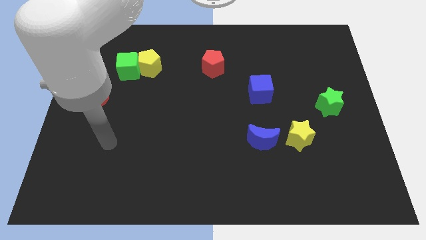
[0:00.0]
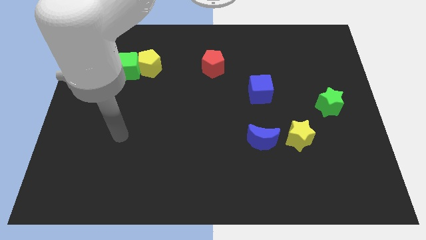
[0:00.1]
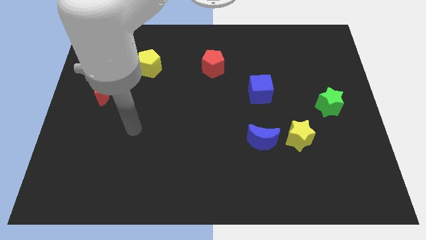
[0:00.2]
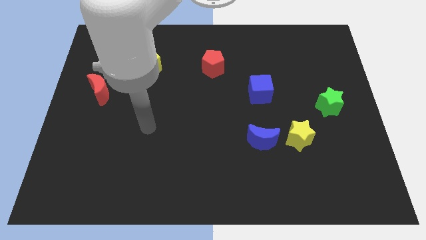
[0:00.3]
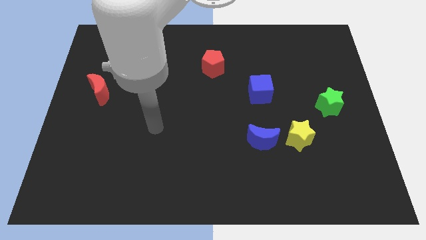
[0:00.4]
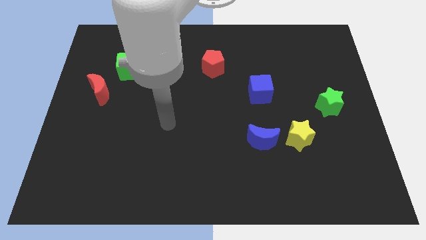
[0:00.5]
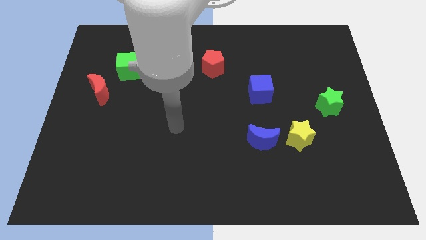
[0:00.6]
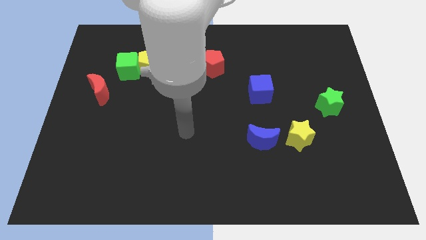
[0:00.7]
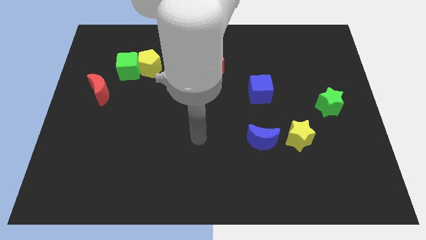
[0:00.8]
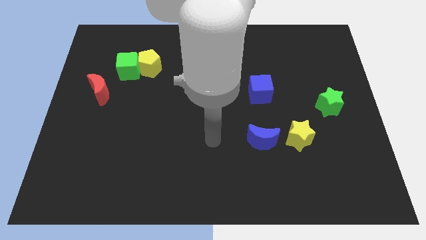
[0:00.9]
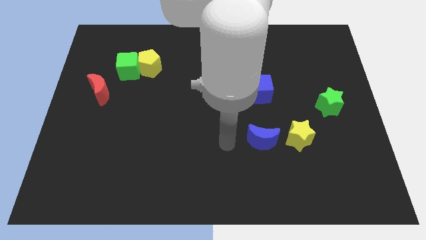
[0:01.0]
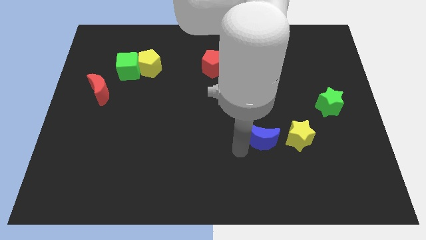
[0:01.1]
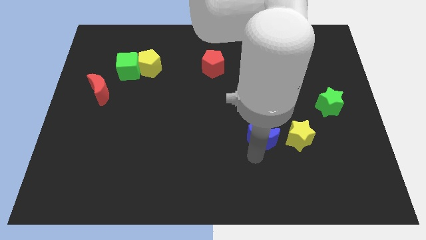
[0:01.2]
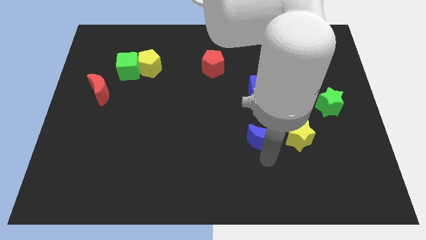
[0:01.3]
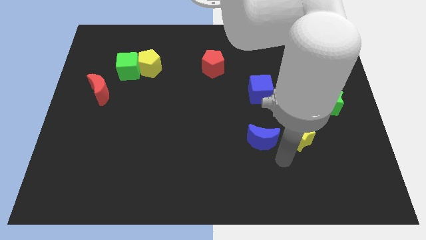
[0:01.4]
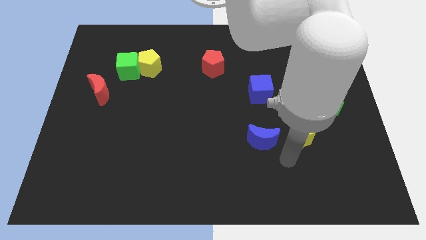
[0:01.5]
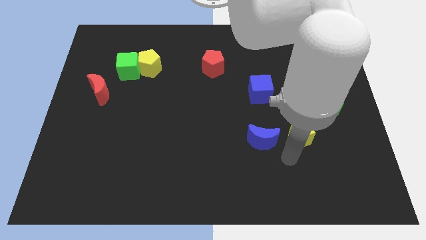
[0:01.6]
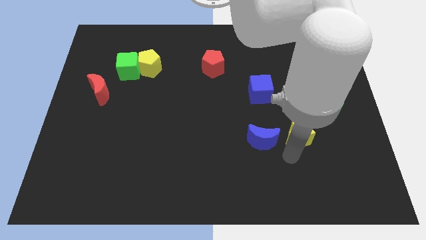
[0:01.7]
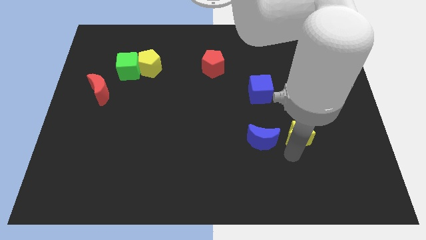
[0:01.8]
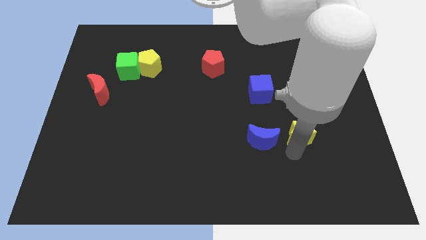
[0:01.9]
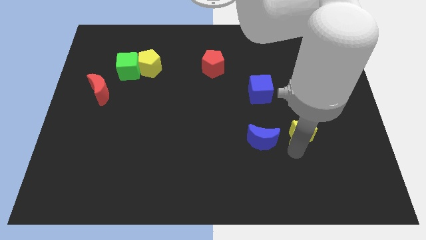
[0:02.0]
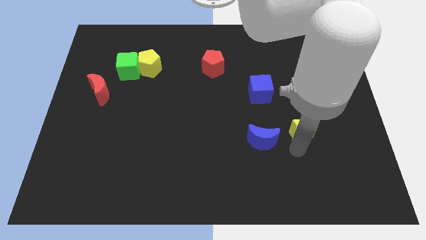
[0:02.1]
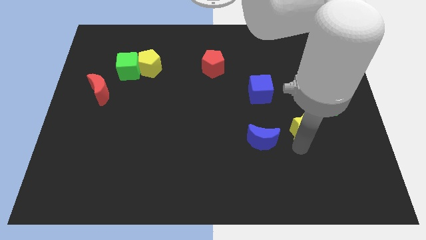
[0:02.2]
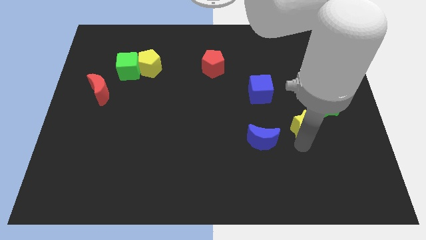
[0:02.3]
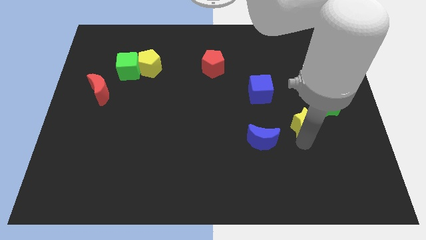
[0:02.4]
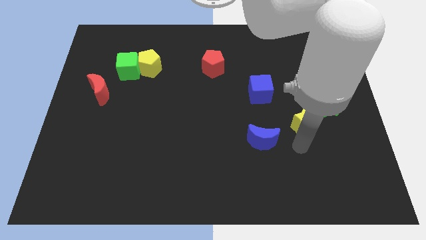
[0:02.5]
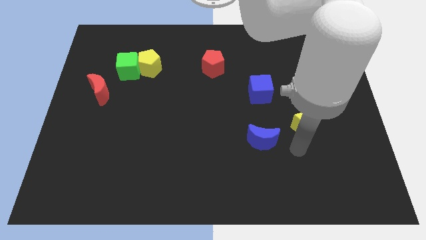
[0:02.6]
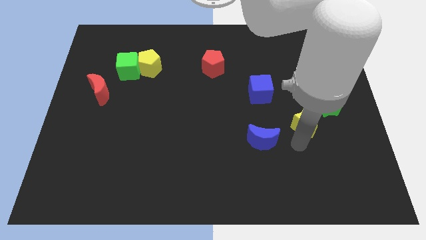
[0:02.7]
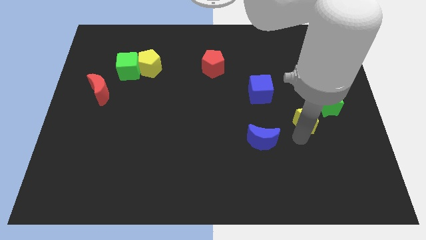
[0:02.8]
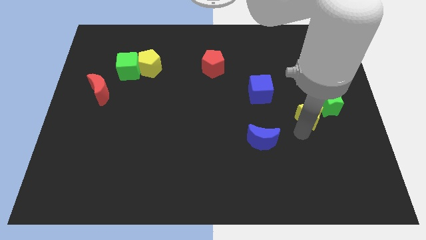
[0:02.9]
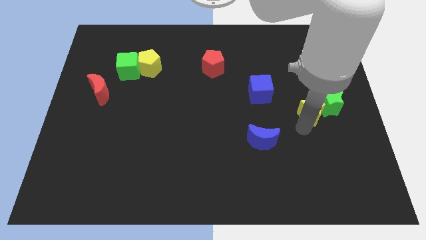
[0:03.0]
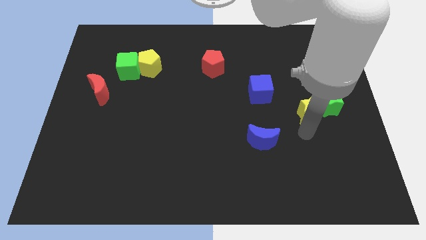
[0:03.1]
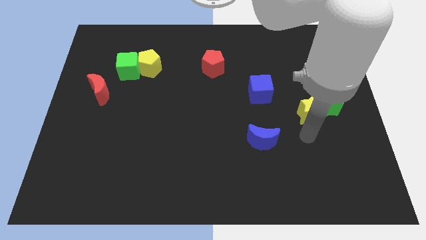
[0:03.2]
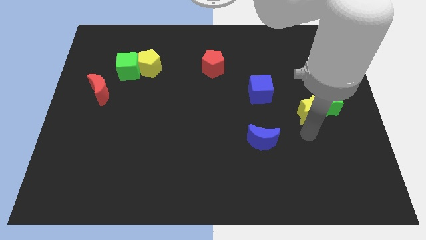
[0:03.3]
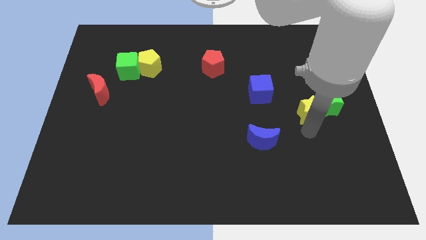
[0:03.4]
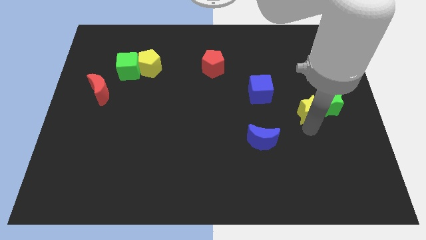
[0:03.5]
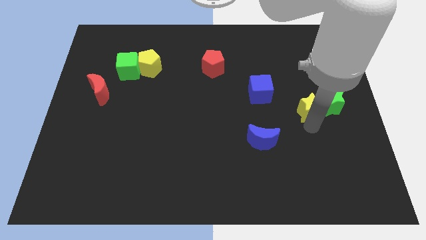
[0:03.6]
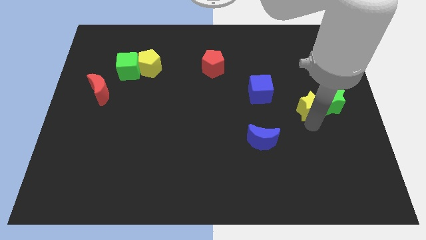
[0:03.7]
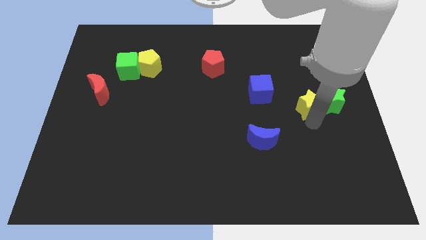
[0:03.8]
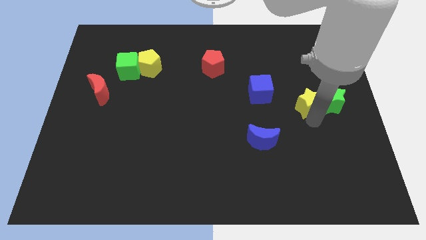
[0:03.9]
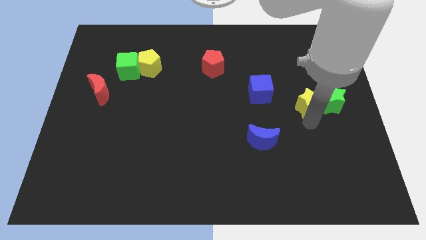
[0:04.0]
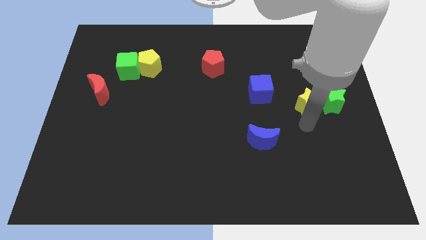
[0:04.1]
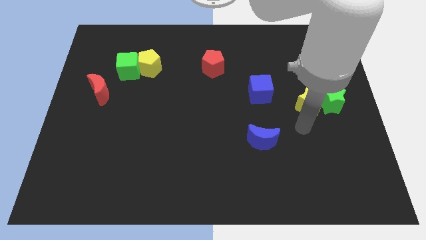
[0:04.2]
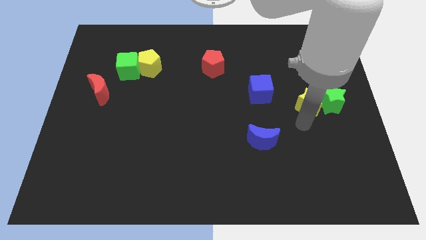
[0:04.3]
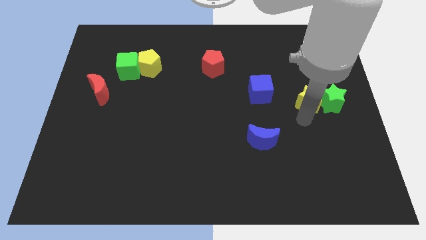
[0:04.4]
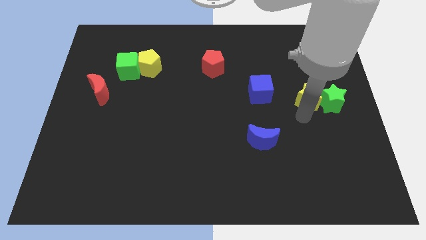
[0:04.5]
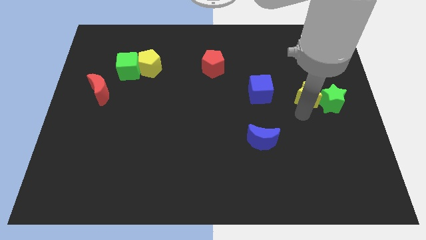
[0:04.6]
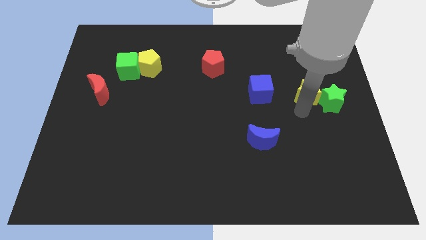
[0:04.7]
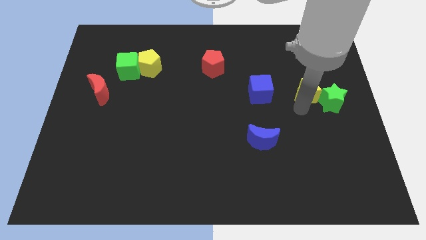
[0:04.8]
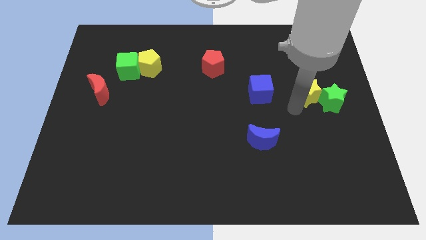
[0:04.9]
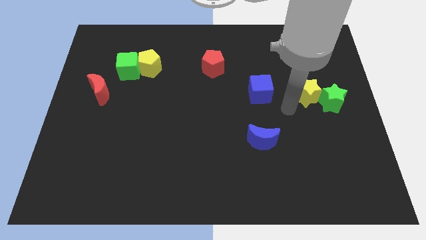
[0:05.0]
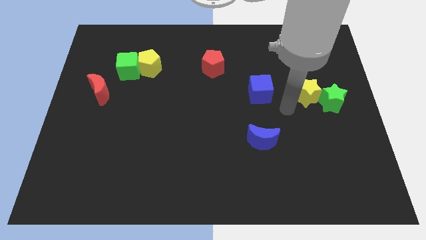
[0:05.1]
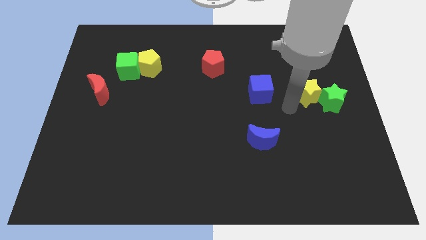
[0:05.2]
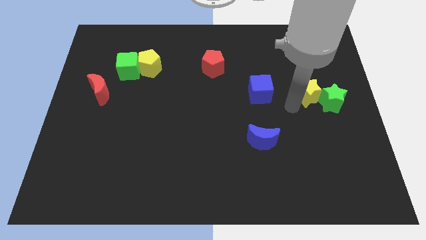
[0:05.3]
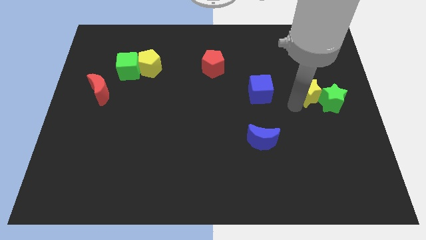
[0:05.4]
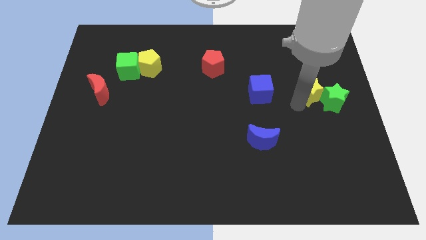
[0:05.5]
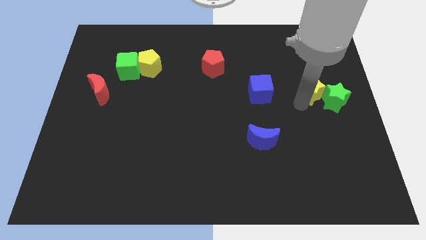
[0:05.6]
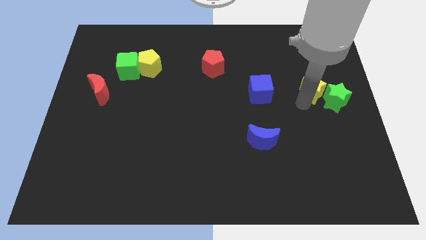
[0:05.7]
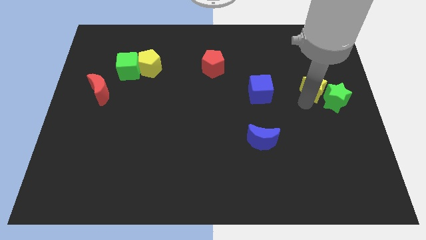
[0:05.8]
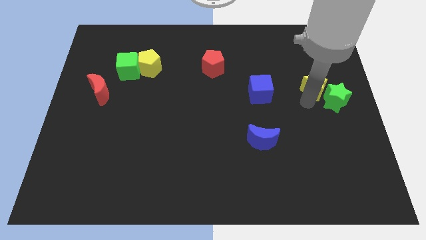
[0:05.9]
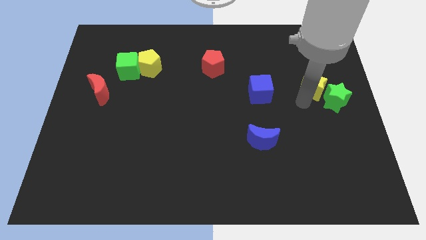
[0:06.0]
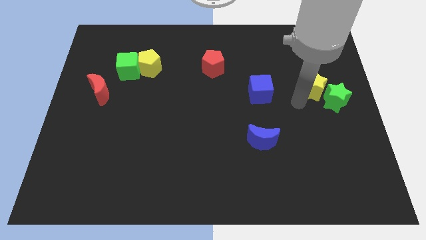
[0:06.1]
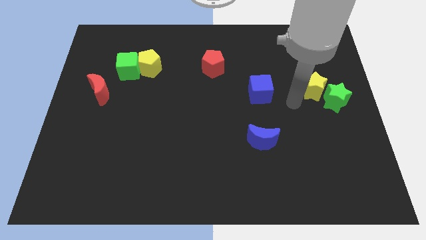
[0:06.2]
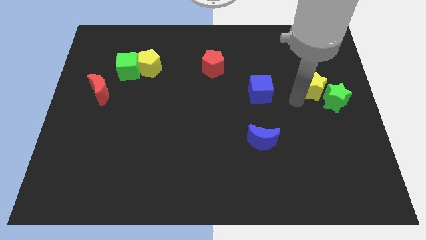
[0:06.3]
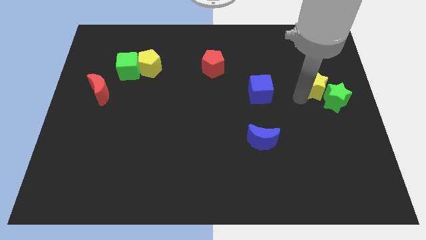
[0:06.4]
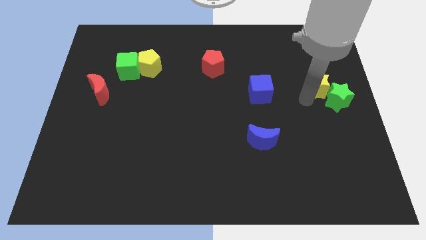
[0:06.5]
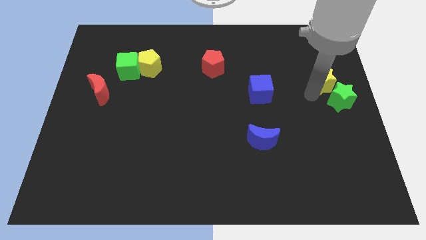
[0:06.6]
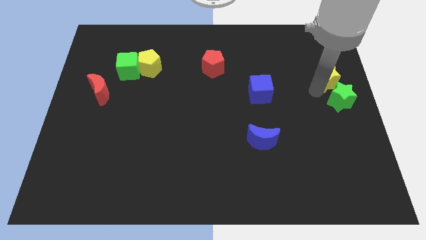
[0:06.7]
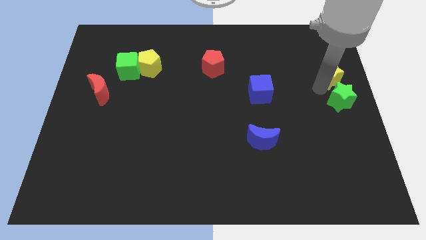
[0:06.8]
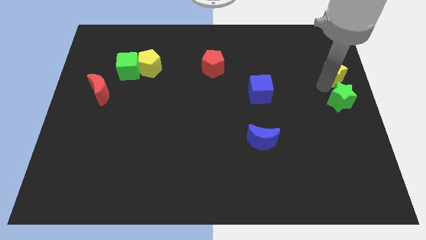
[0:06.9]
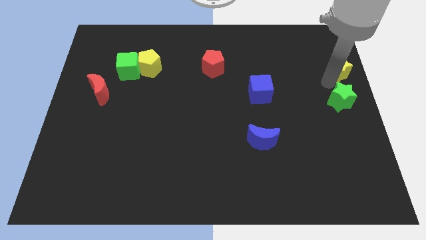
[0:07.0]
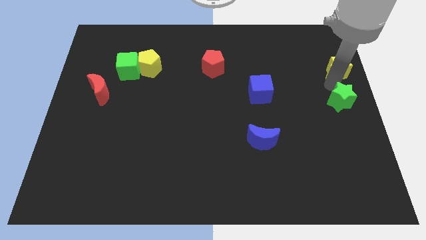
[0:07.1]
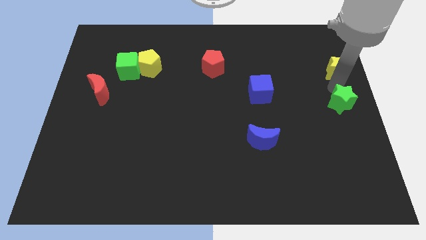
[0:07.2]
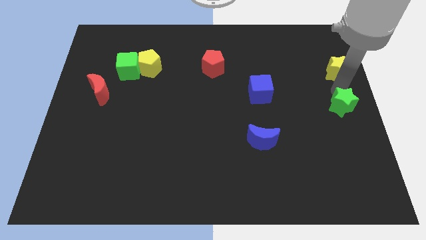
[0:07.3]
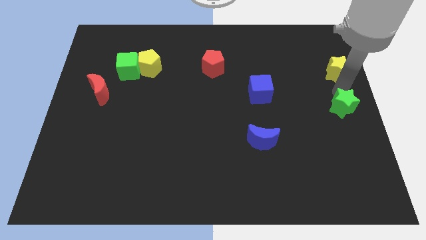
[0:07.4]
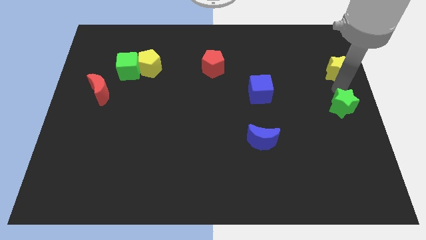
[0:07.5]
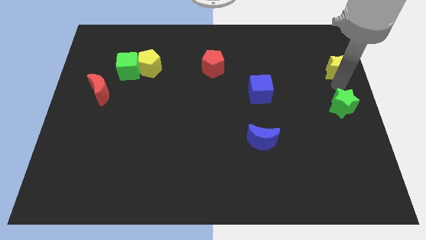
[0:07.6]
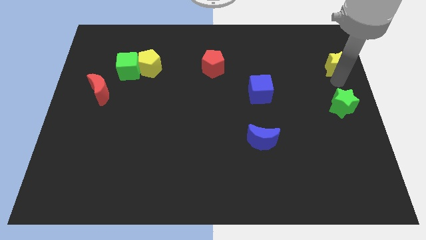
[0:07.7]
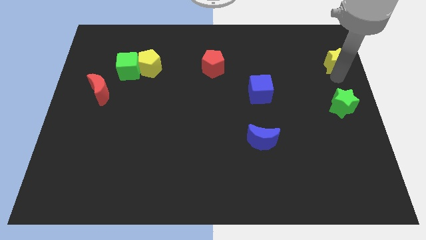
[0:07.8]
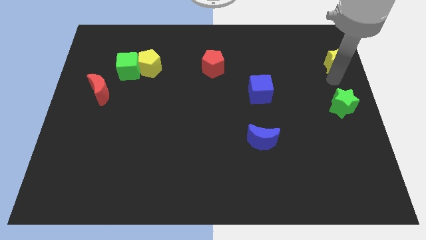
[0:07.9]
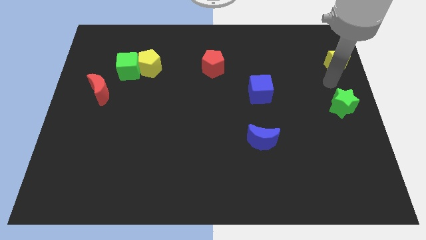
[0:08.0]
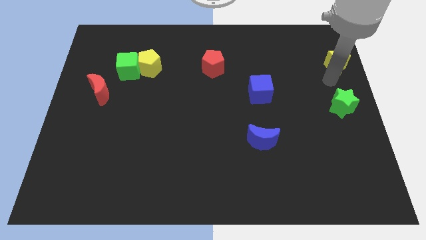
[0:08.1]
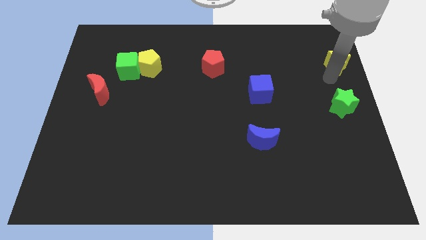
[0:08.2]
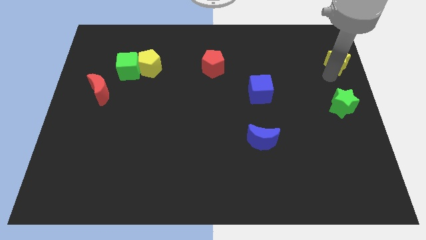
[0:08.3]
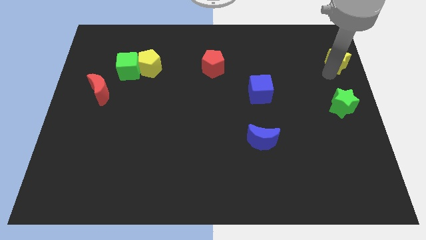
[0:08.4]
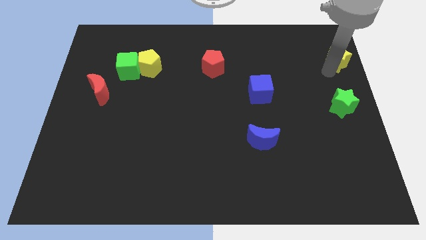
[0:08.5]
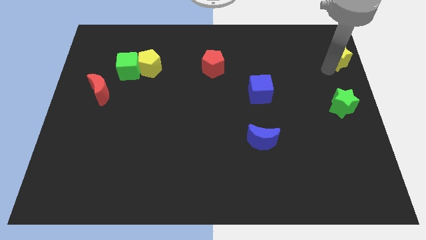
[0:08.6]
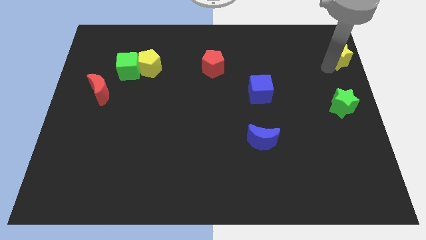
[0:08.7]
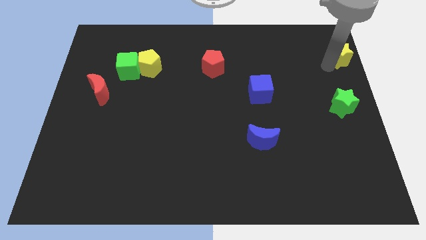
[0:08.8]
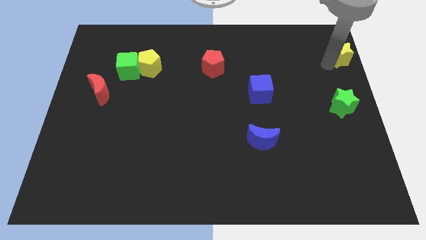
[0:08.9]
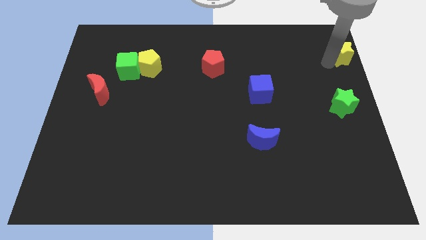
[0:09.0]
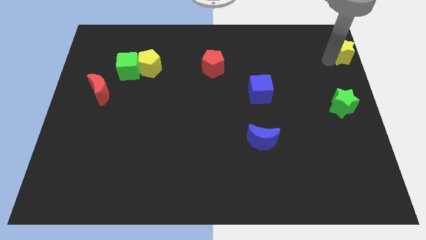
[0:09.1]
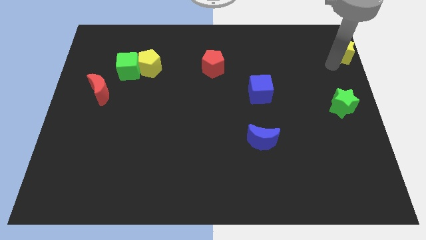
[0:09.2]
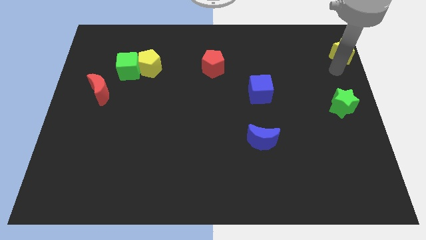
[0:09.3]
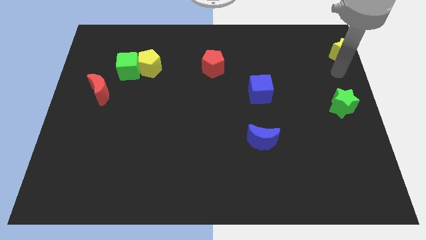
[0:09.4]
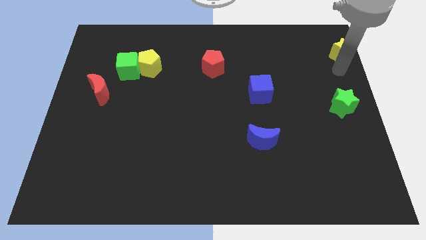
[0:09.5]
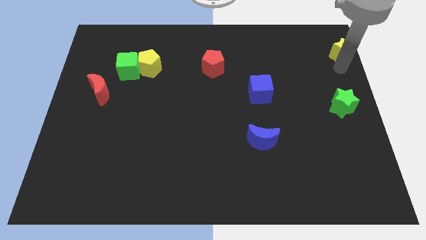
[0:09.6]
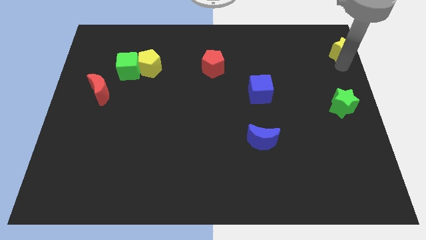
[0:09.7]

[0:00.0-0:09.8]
move the yellow star to the top right of the board
